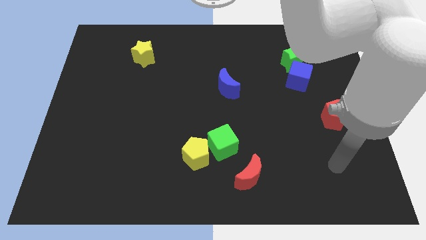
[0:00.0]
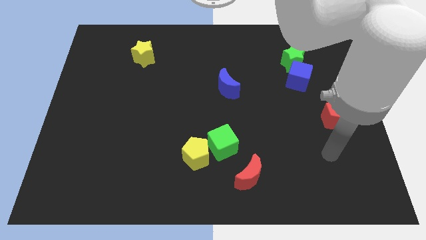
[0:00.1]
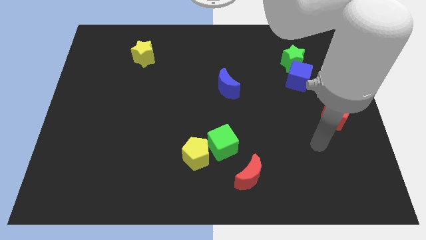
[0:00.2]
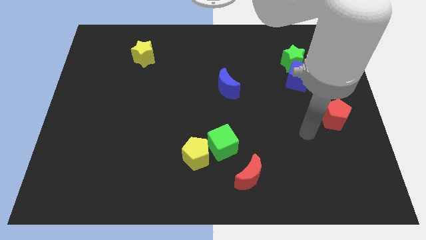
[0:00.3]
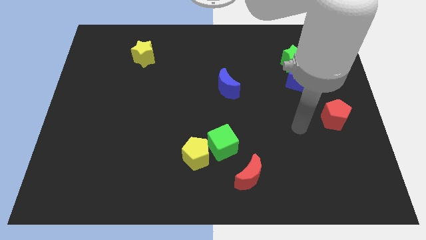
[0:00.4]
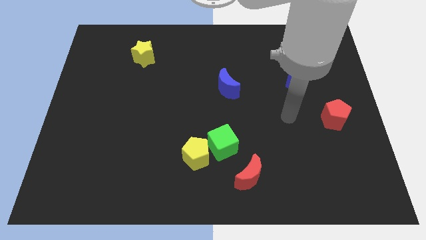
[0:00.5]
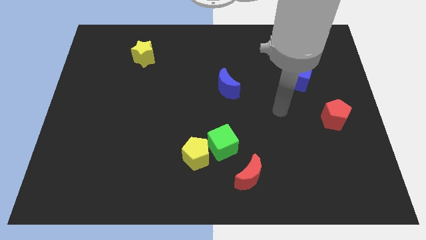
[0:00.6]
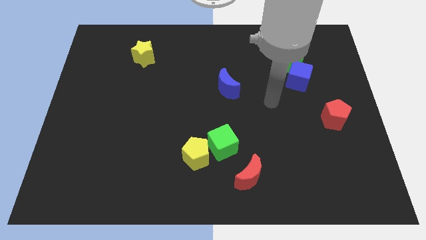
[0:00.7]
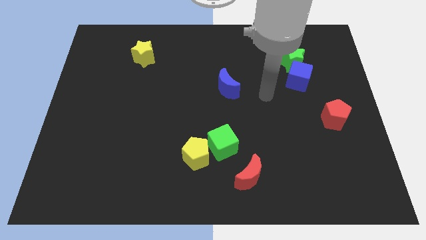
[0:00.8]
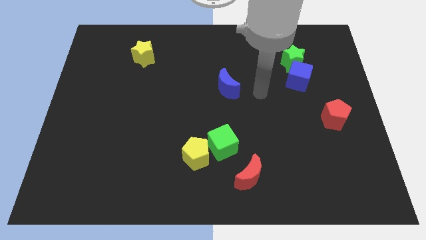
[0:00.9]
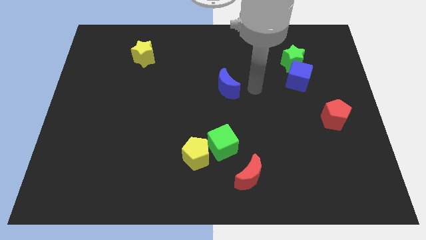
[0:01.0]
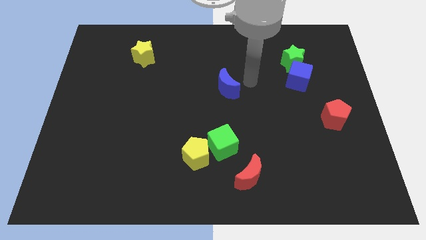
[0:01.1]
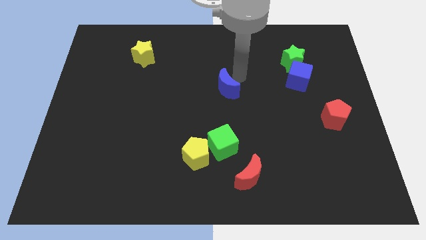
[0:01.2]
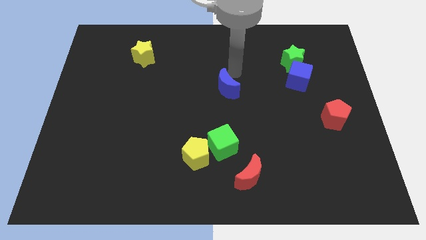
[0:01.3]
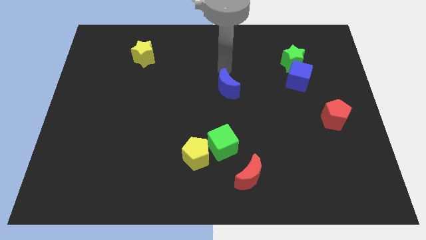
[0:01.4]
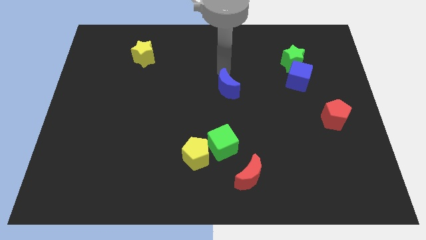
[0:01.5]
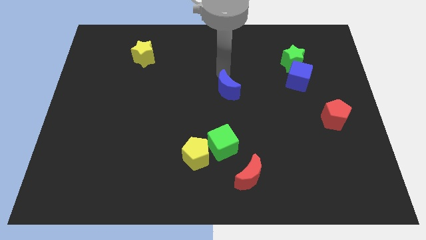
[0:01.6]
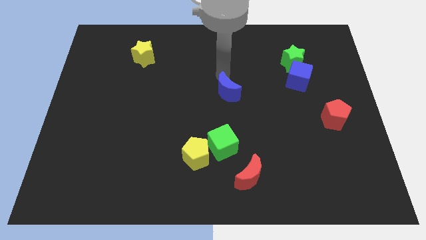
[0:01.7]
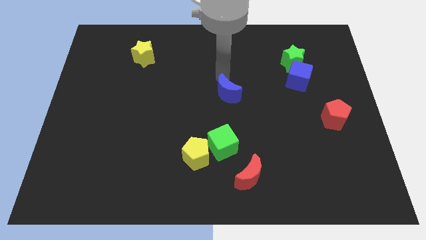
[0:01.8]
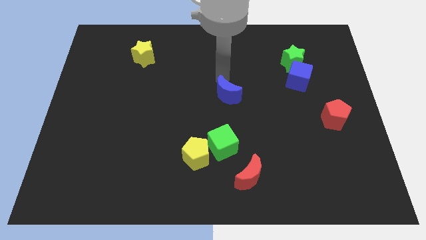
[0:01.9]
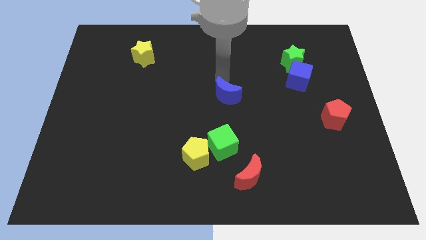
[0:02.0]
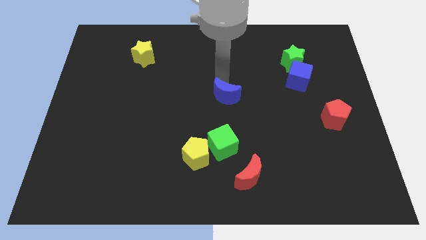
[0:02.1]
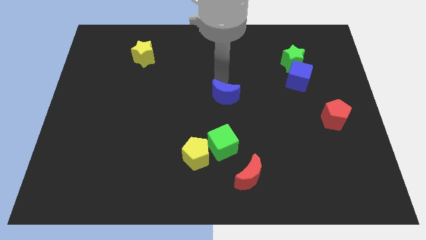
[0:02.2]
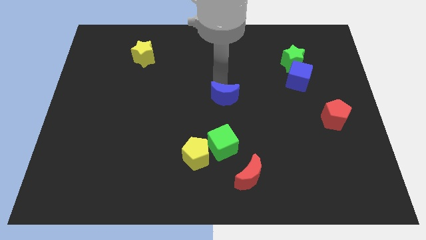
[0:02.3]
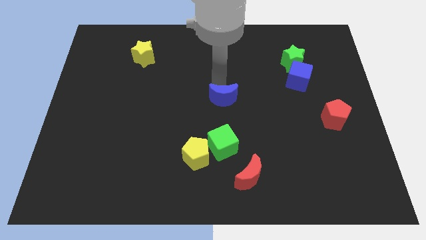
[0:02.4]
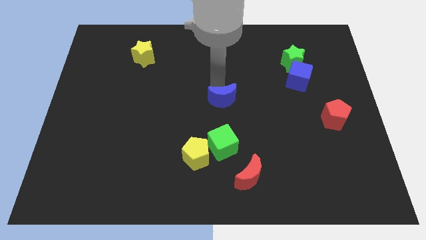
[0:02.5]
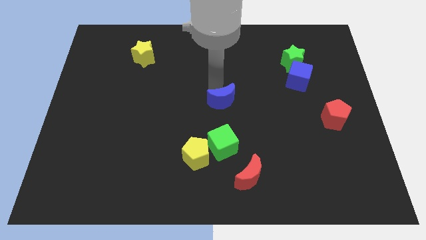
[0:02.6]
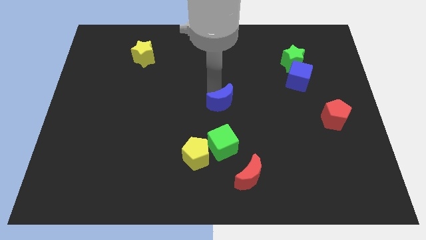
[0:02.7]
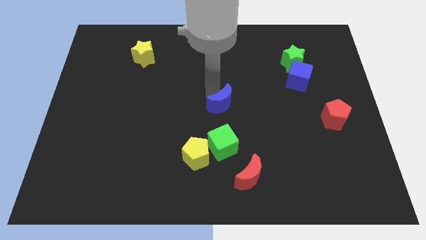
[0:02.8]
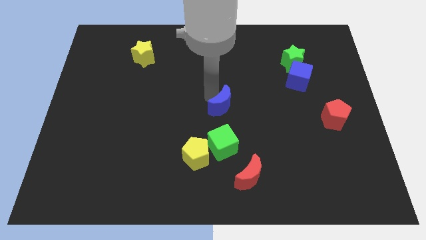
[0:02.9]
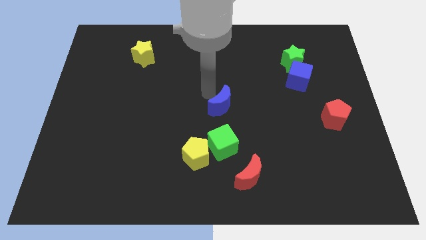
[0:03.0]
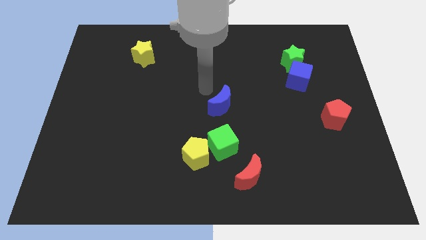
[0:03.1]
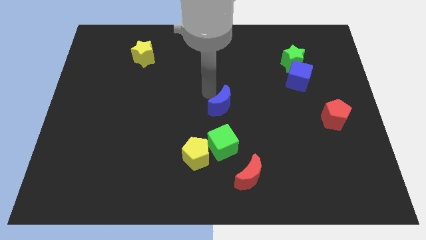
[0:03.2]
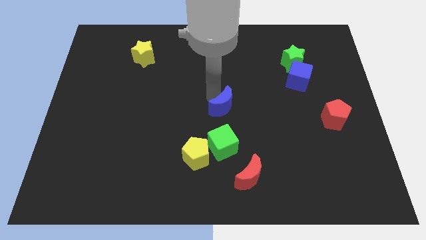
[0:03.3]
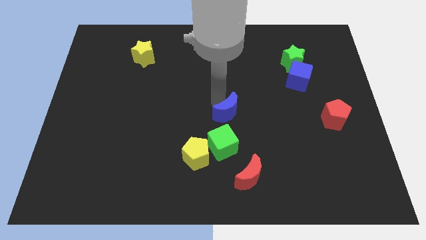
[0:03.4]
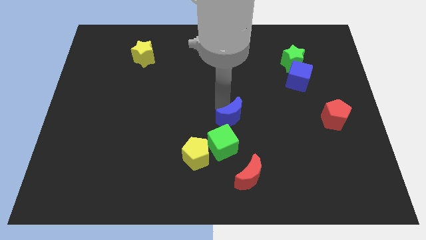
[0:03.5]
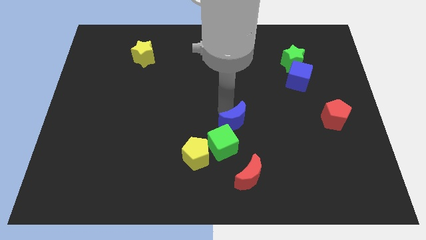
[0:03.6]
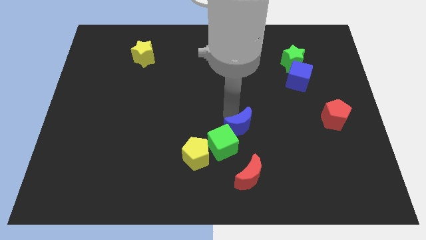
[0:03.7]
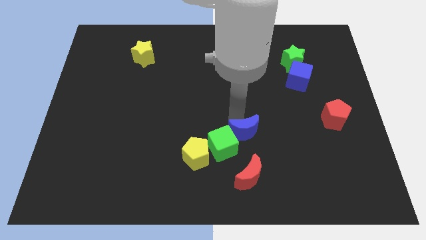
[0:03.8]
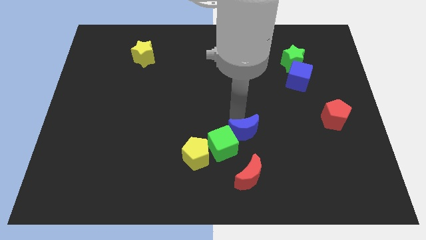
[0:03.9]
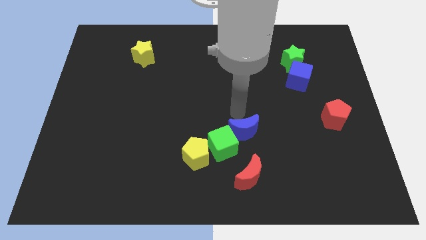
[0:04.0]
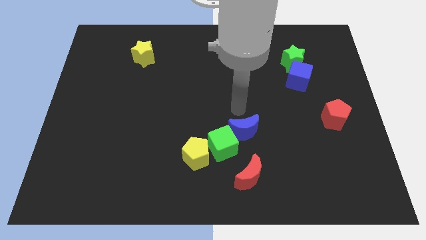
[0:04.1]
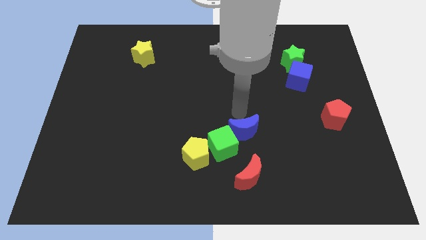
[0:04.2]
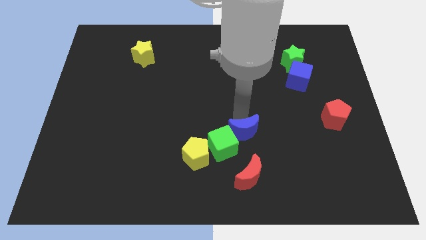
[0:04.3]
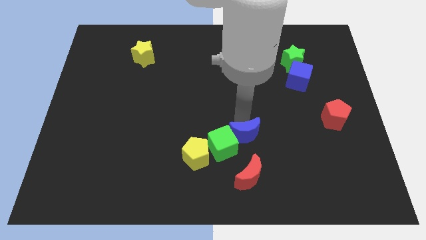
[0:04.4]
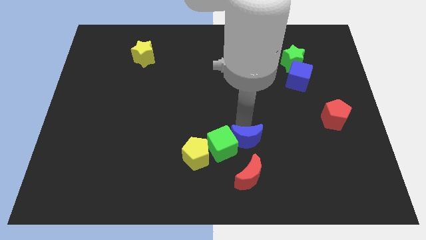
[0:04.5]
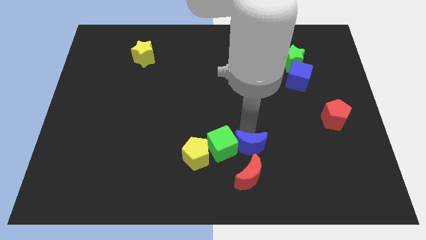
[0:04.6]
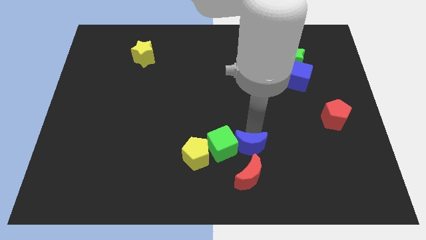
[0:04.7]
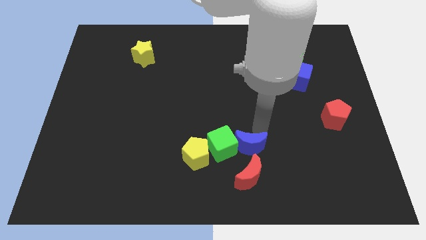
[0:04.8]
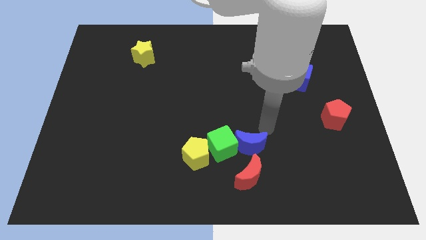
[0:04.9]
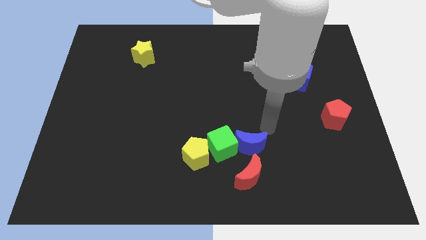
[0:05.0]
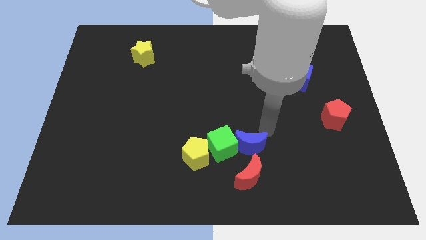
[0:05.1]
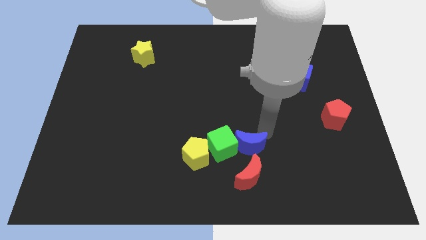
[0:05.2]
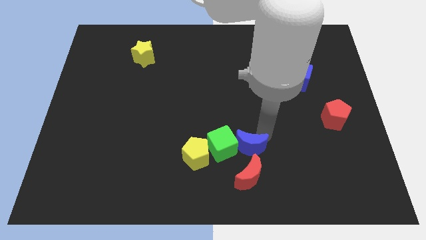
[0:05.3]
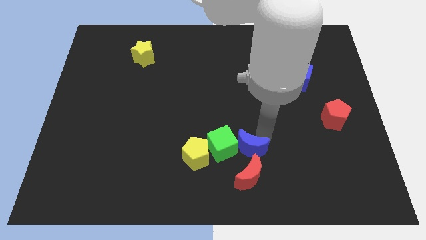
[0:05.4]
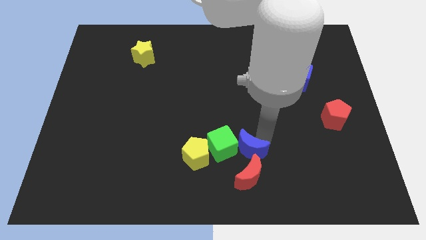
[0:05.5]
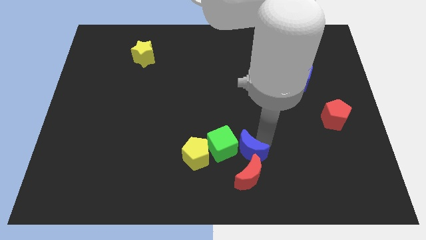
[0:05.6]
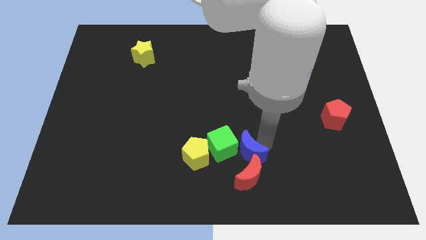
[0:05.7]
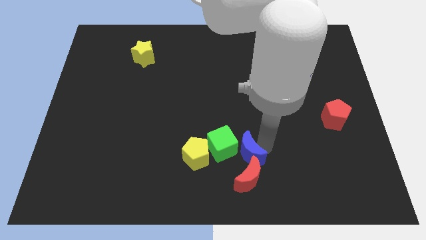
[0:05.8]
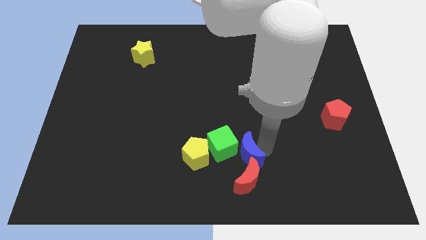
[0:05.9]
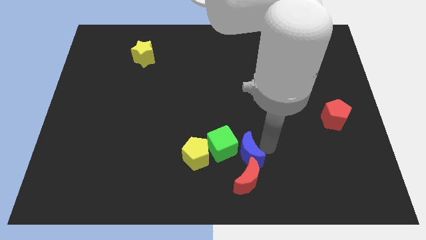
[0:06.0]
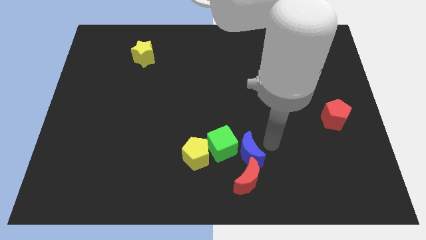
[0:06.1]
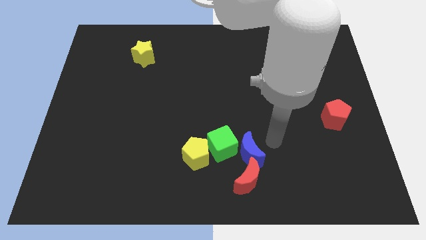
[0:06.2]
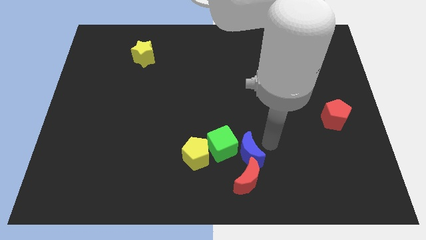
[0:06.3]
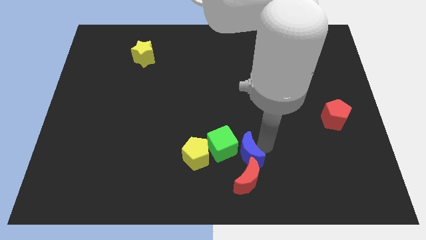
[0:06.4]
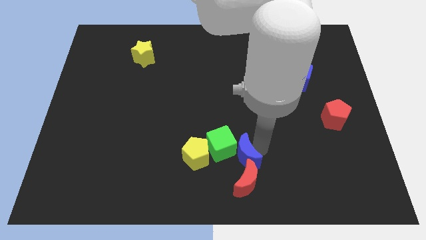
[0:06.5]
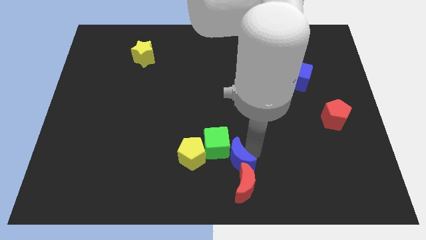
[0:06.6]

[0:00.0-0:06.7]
move the blue moon to the bottom
